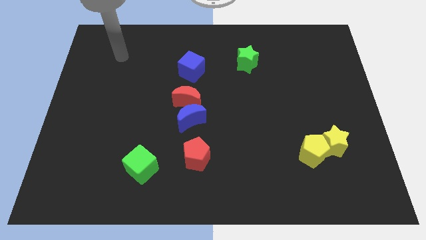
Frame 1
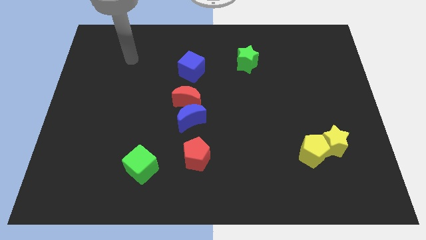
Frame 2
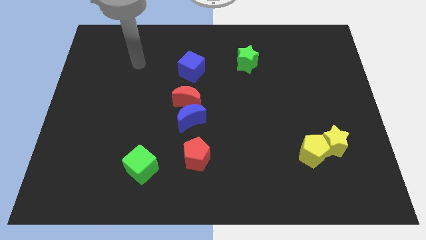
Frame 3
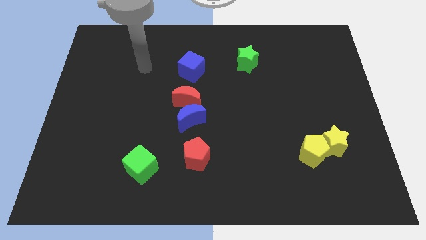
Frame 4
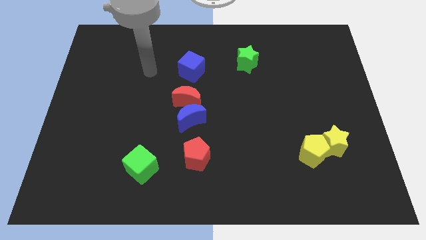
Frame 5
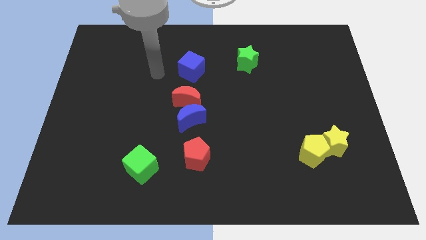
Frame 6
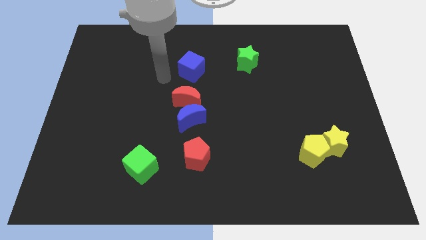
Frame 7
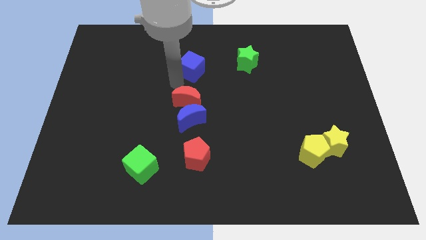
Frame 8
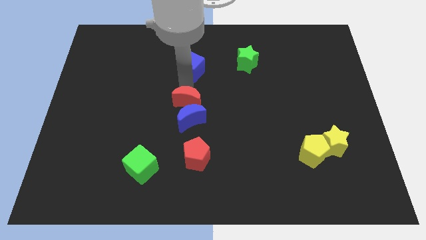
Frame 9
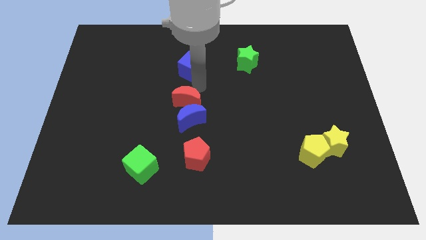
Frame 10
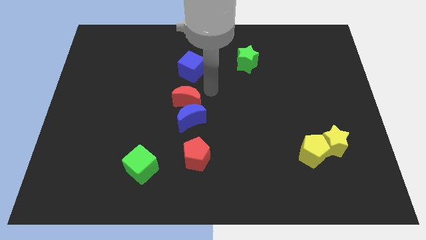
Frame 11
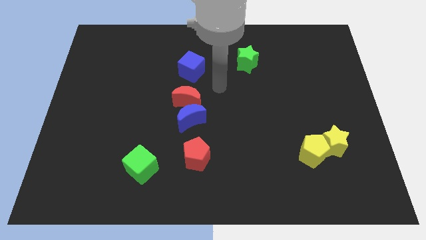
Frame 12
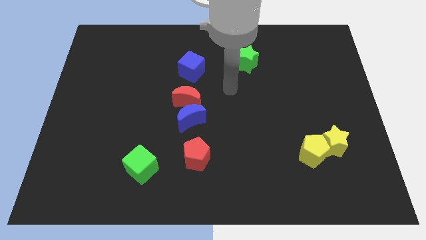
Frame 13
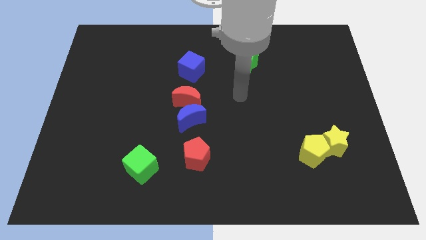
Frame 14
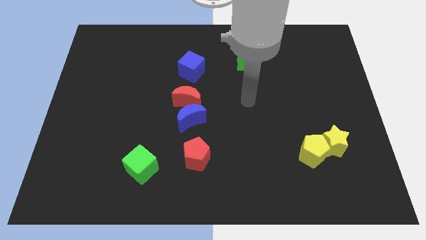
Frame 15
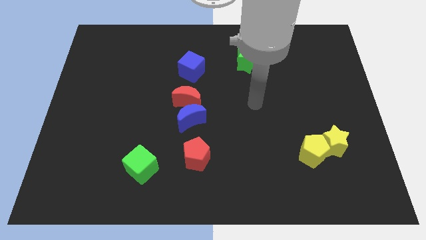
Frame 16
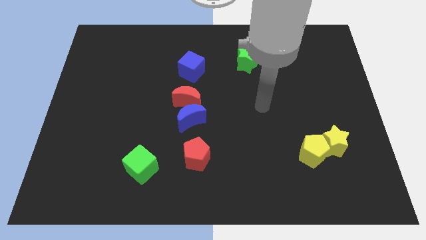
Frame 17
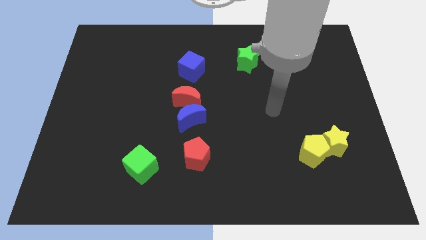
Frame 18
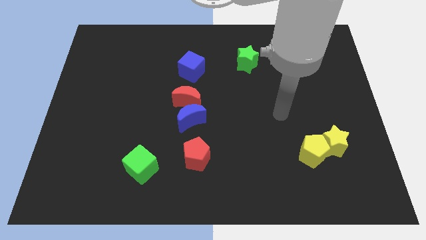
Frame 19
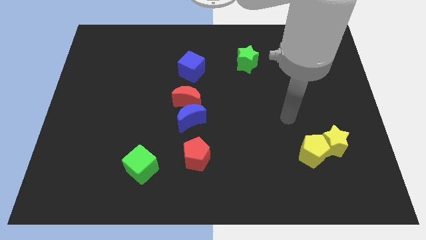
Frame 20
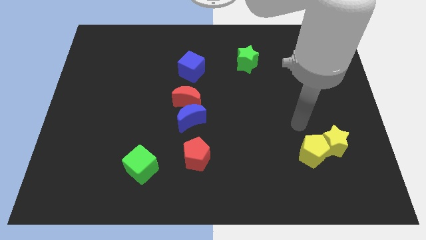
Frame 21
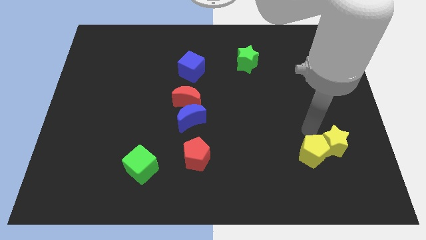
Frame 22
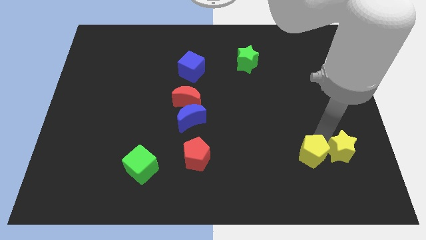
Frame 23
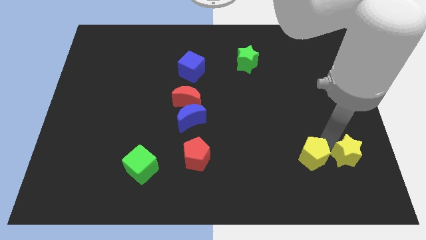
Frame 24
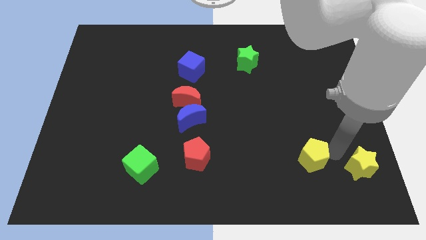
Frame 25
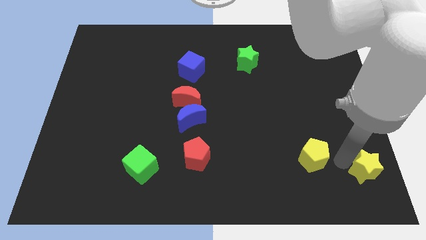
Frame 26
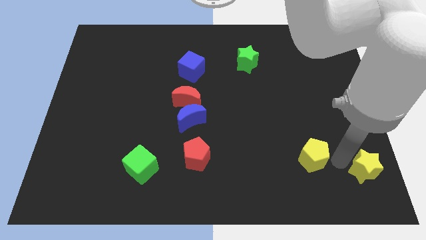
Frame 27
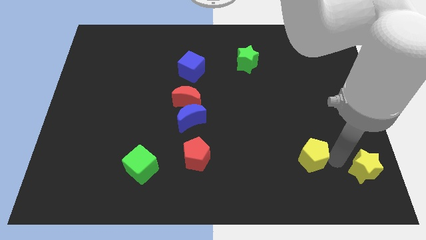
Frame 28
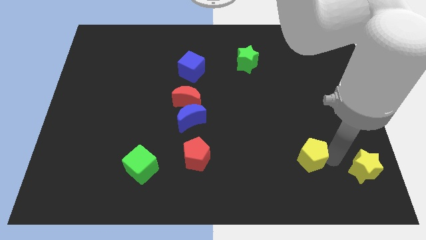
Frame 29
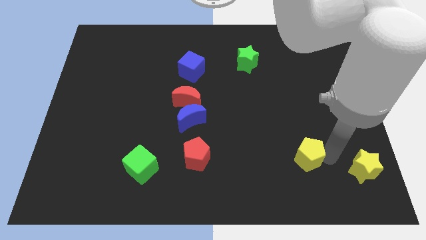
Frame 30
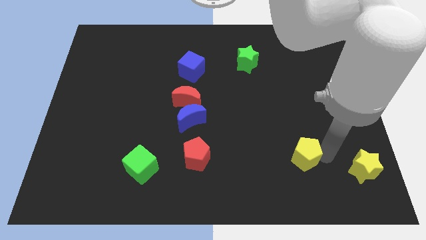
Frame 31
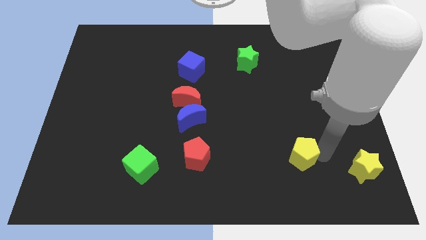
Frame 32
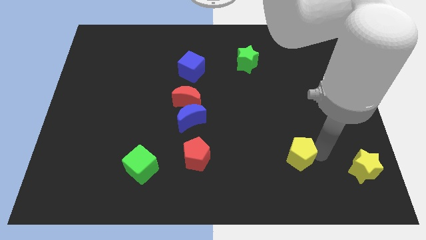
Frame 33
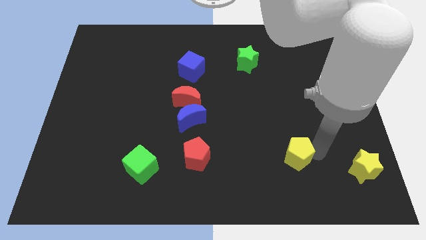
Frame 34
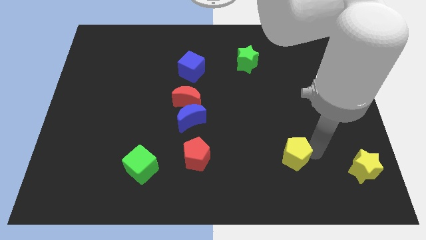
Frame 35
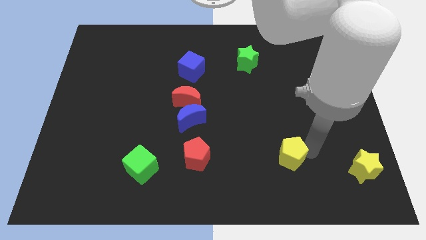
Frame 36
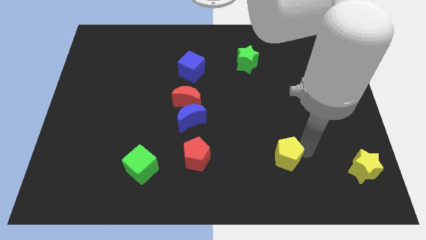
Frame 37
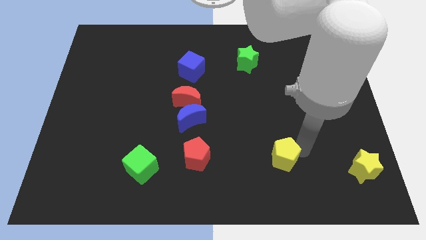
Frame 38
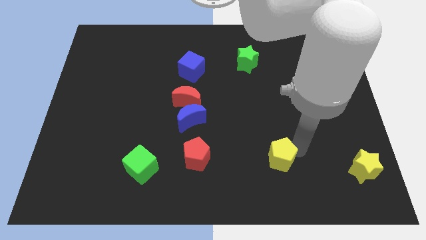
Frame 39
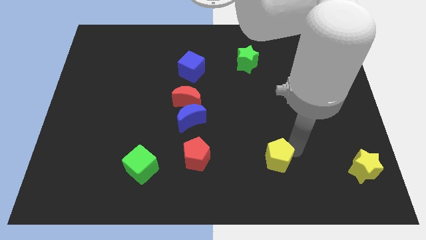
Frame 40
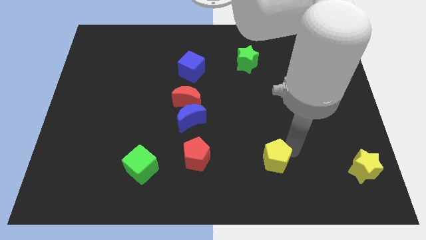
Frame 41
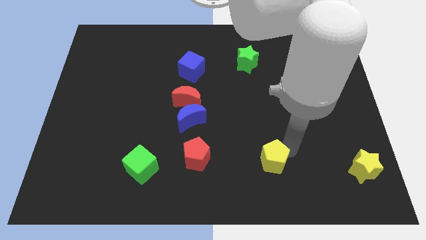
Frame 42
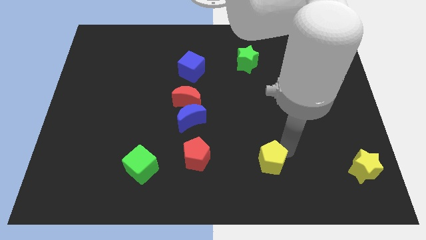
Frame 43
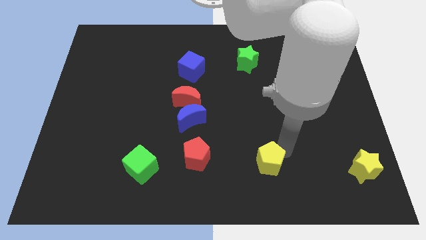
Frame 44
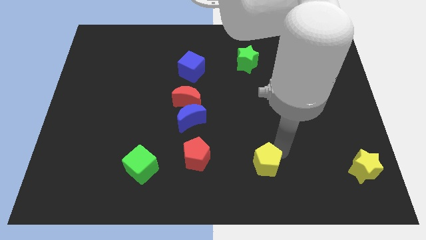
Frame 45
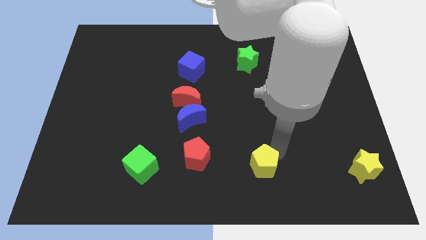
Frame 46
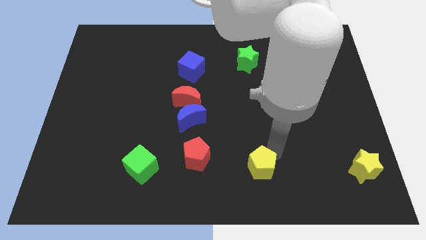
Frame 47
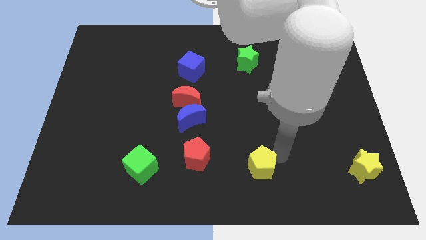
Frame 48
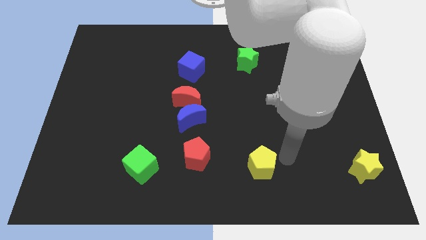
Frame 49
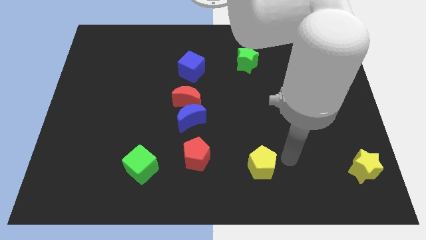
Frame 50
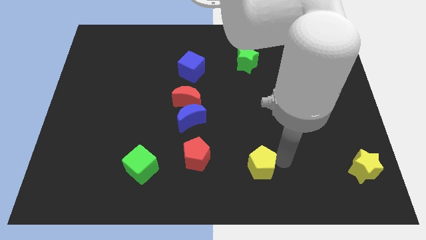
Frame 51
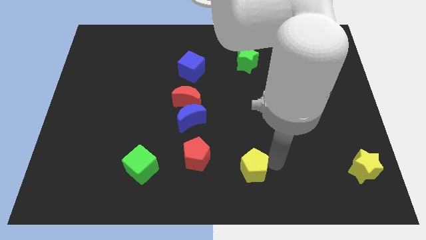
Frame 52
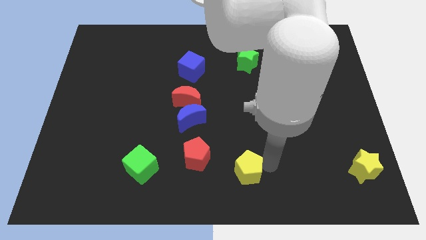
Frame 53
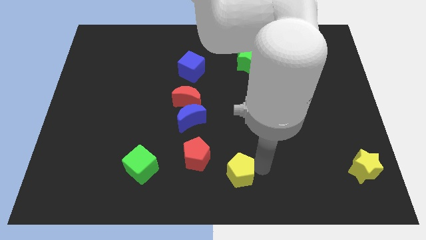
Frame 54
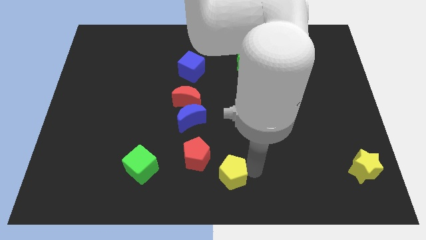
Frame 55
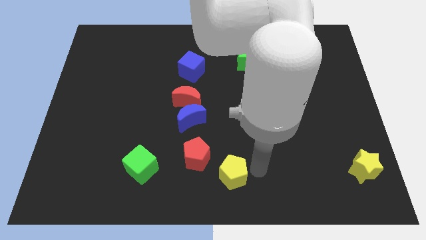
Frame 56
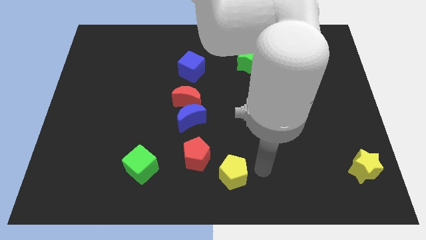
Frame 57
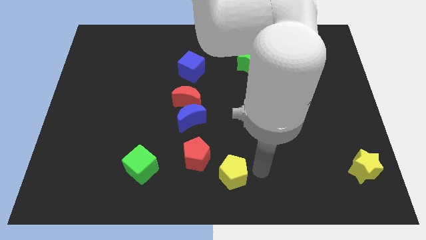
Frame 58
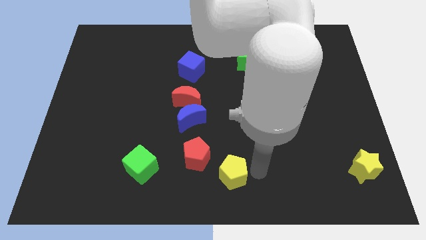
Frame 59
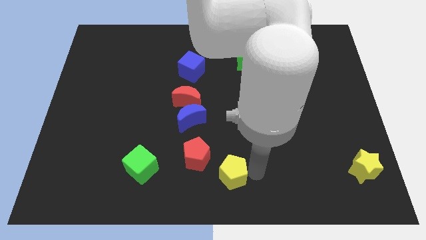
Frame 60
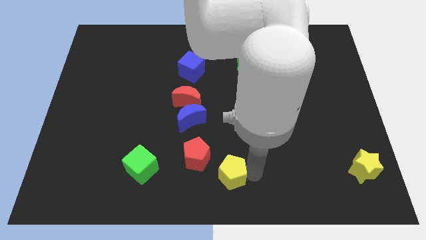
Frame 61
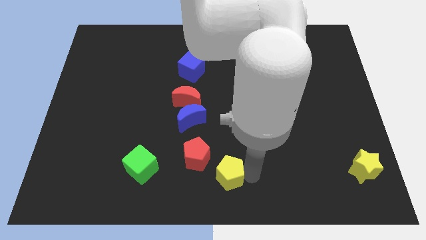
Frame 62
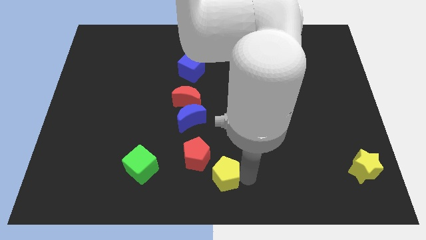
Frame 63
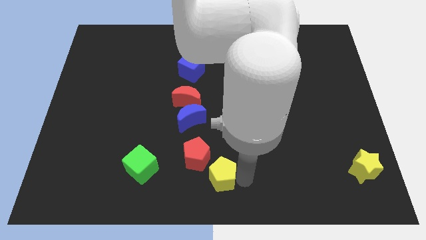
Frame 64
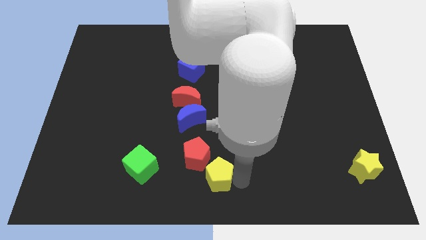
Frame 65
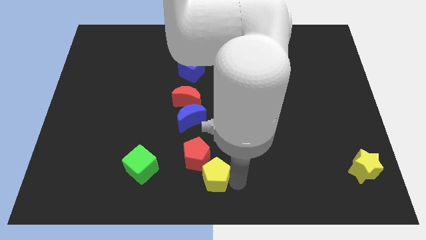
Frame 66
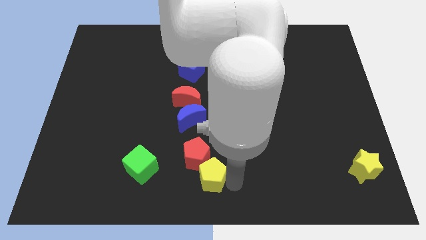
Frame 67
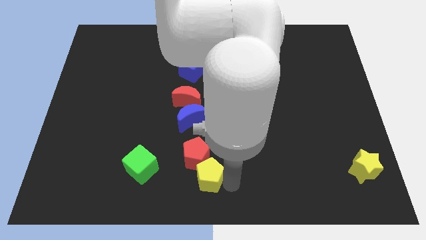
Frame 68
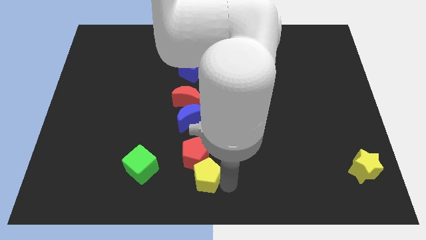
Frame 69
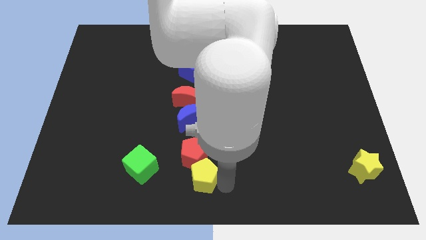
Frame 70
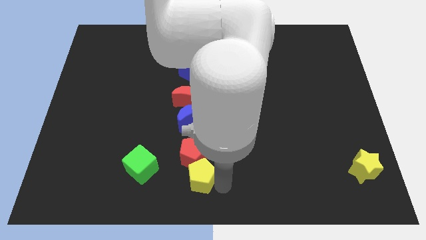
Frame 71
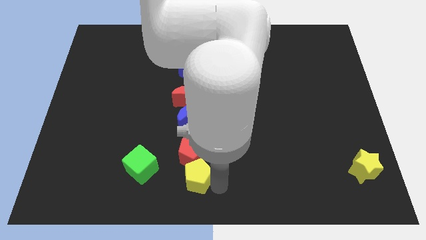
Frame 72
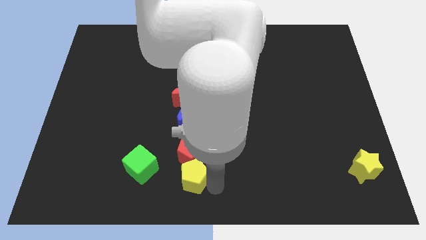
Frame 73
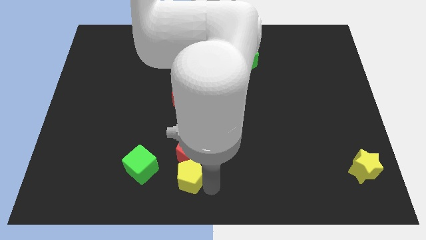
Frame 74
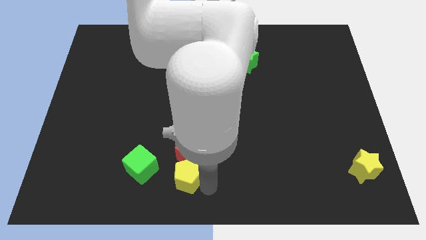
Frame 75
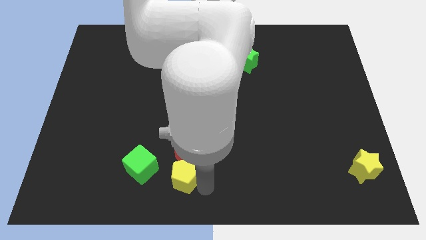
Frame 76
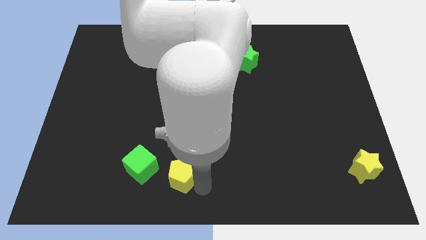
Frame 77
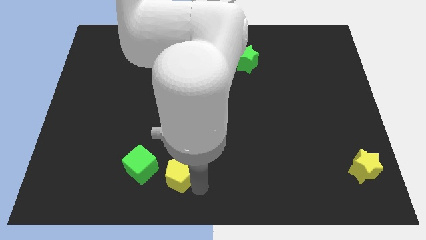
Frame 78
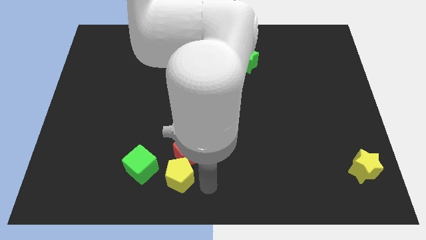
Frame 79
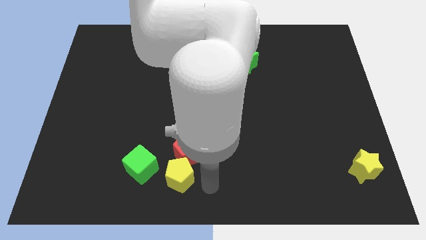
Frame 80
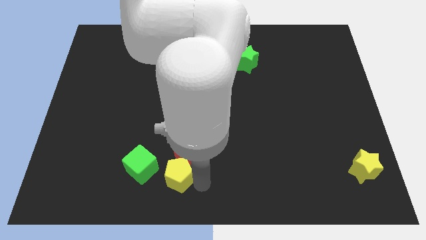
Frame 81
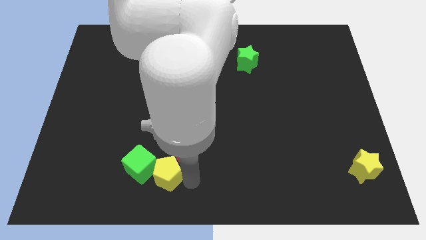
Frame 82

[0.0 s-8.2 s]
put the yellow pentagon close to the green cube
